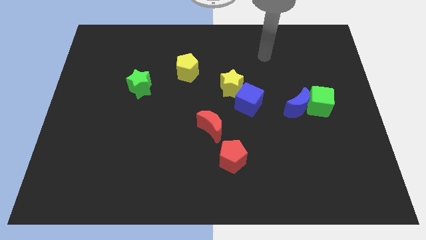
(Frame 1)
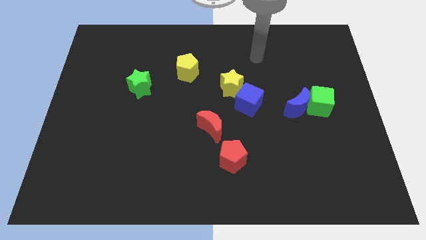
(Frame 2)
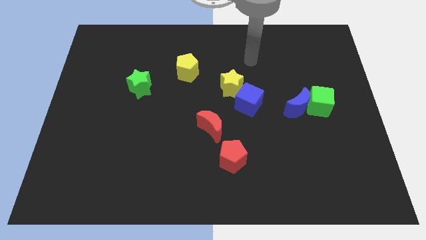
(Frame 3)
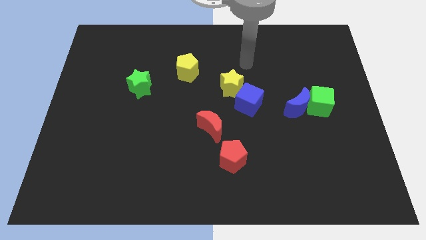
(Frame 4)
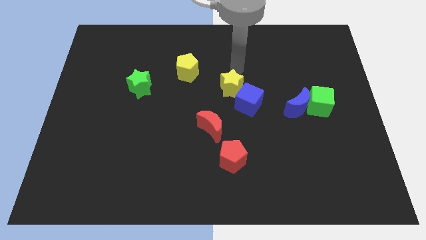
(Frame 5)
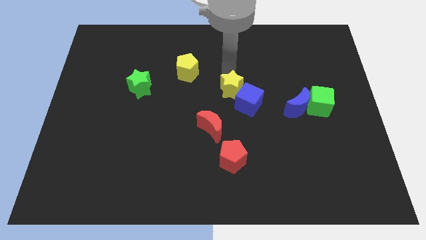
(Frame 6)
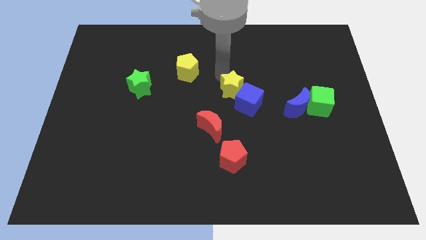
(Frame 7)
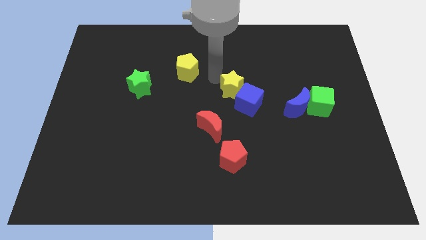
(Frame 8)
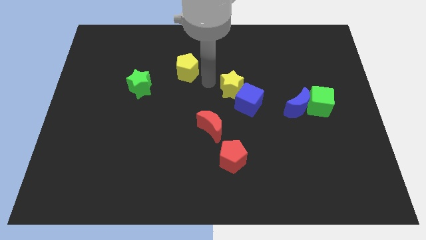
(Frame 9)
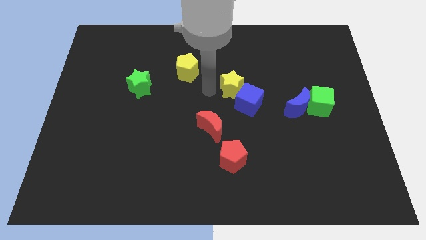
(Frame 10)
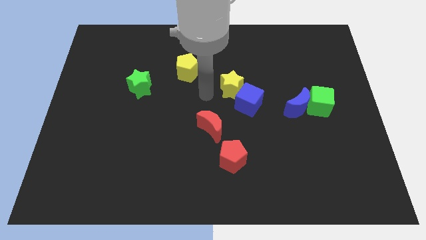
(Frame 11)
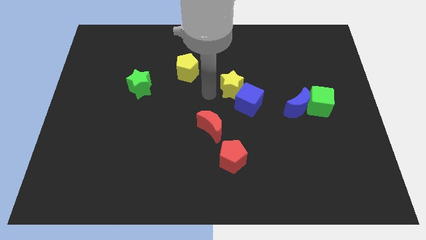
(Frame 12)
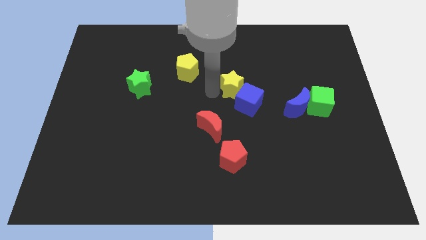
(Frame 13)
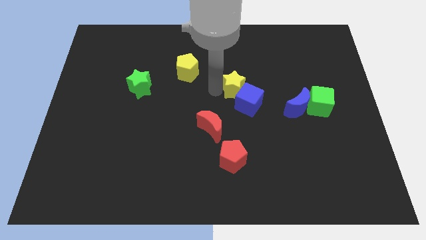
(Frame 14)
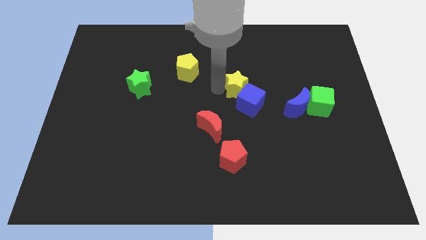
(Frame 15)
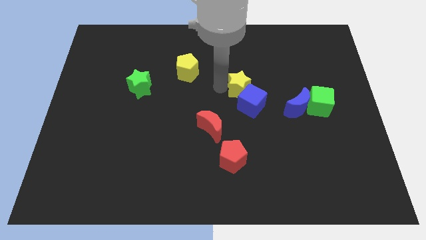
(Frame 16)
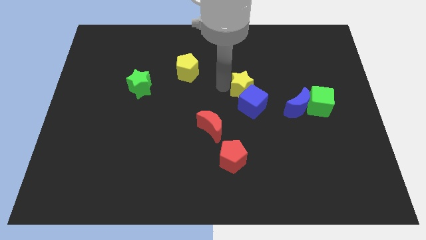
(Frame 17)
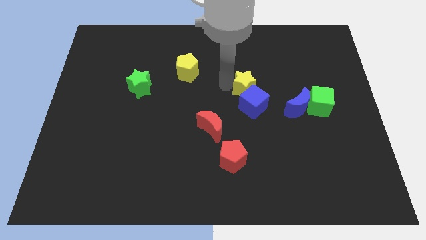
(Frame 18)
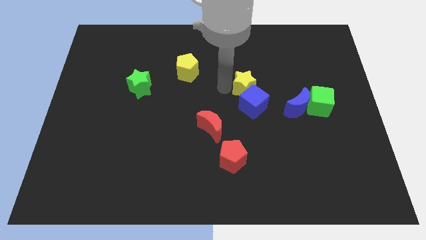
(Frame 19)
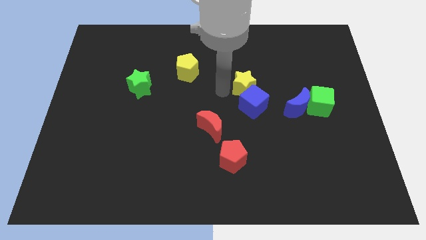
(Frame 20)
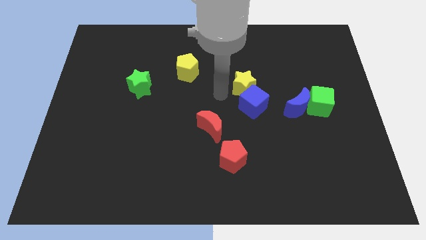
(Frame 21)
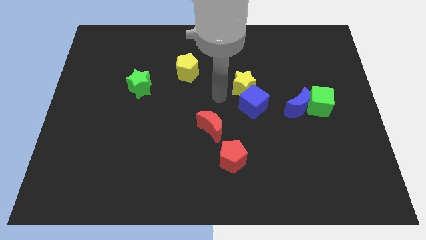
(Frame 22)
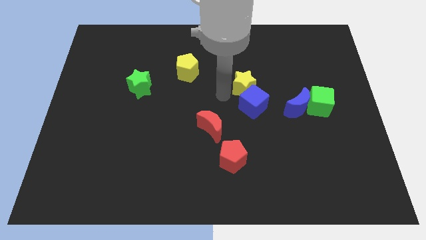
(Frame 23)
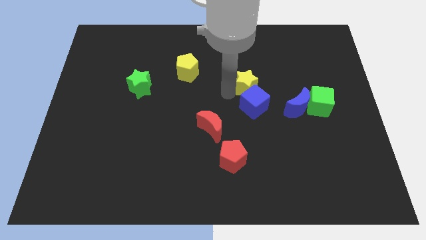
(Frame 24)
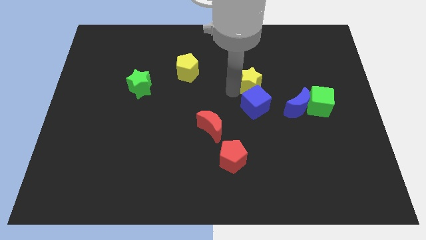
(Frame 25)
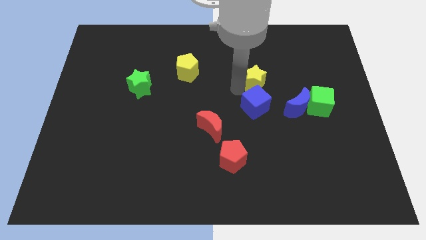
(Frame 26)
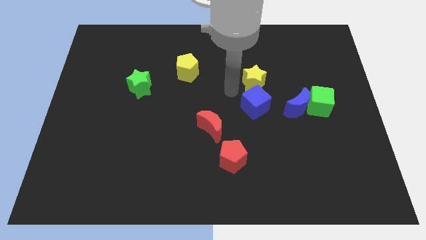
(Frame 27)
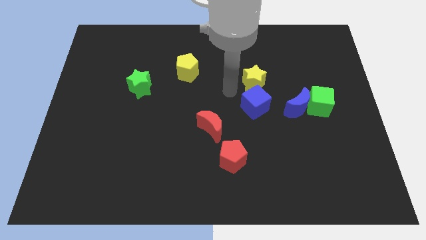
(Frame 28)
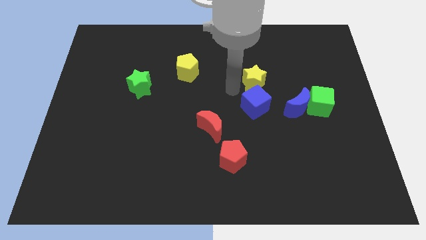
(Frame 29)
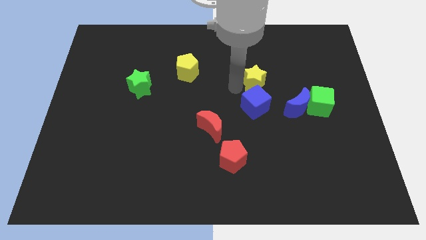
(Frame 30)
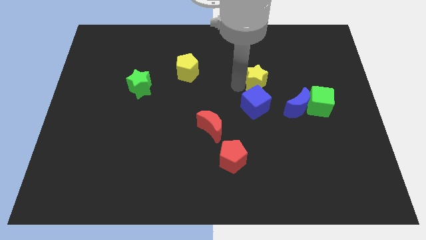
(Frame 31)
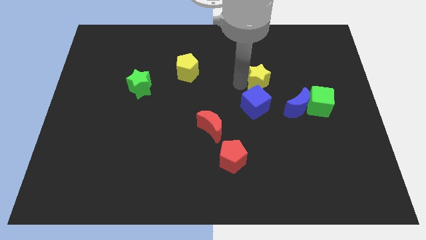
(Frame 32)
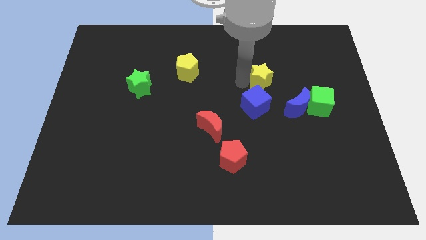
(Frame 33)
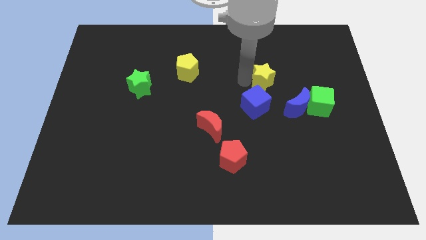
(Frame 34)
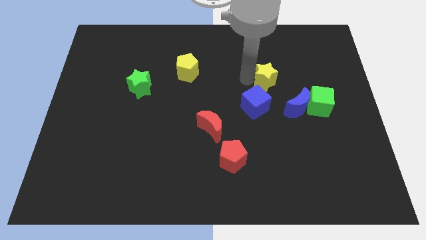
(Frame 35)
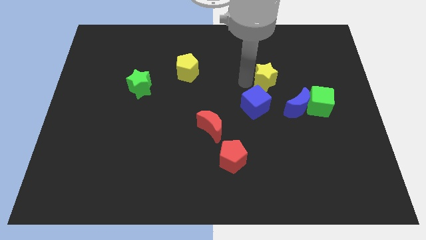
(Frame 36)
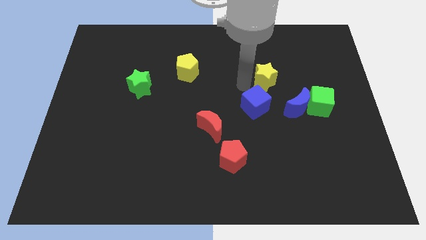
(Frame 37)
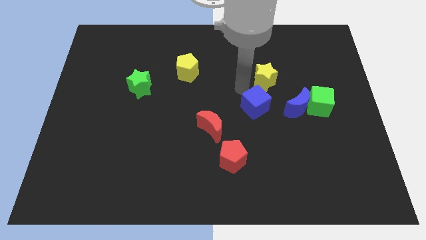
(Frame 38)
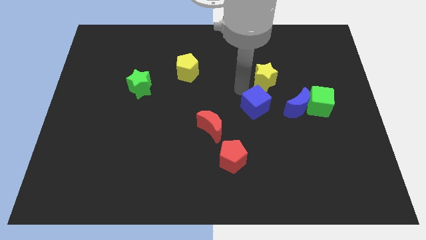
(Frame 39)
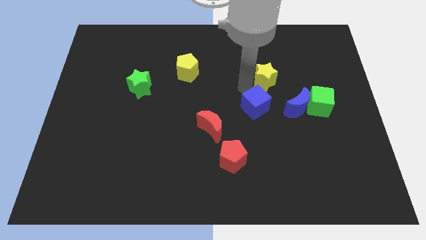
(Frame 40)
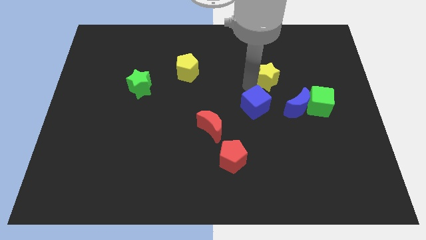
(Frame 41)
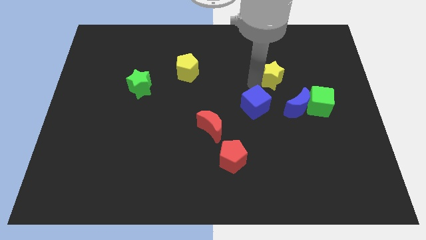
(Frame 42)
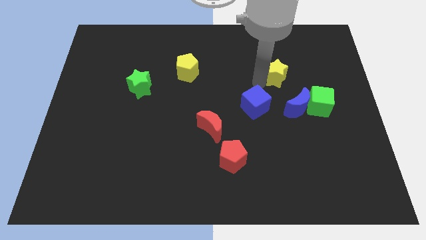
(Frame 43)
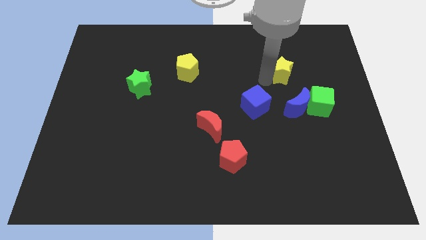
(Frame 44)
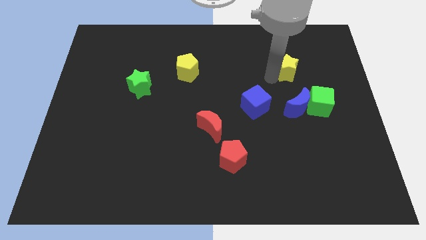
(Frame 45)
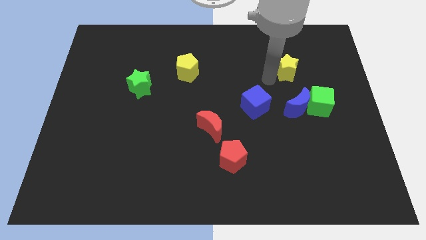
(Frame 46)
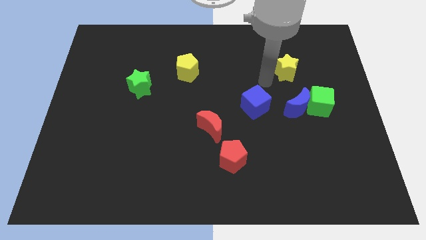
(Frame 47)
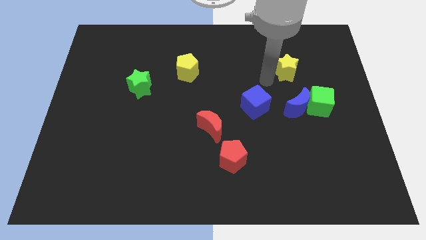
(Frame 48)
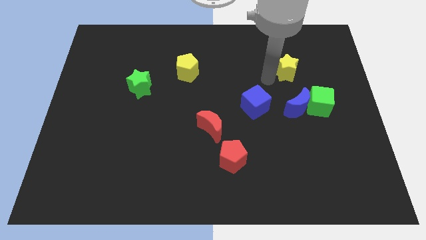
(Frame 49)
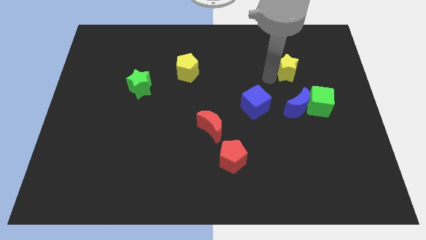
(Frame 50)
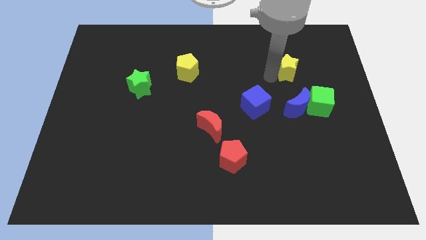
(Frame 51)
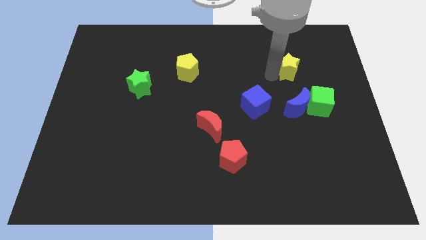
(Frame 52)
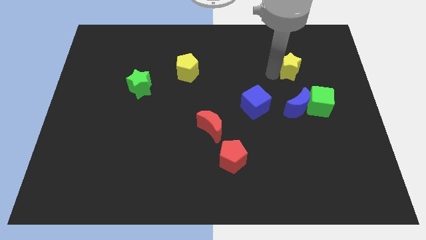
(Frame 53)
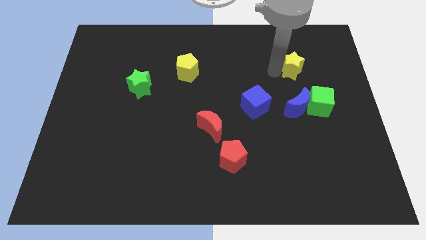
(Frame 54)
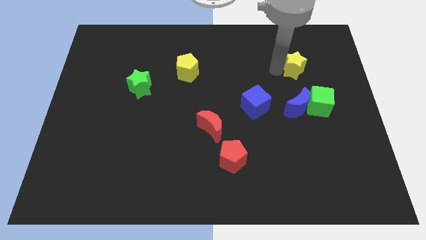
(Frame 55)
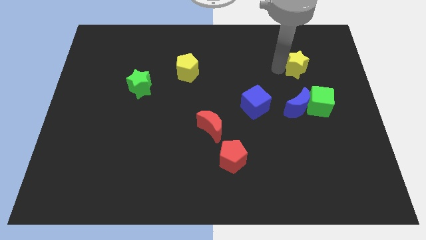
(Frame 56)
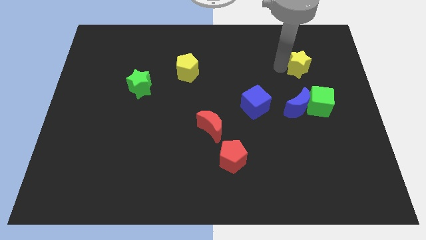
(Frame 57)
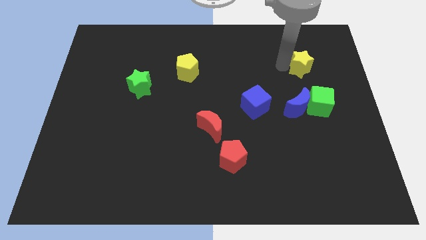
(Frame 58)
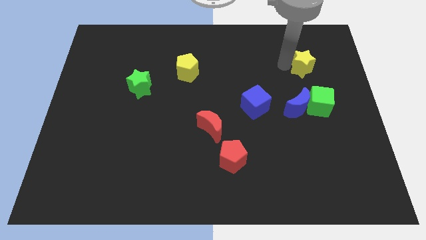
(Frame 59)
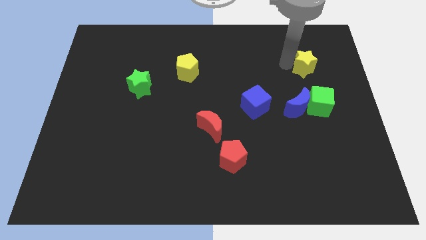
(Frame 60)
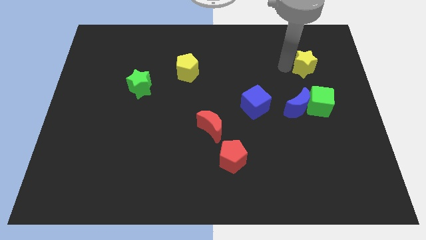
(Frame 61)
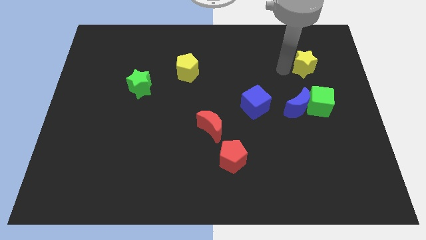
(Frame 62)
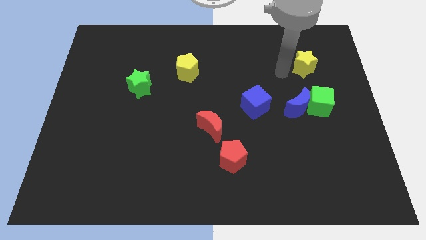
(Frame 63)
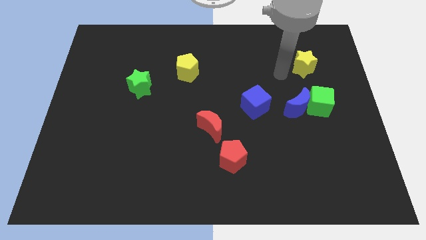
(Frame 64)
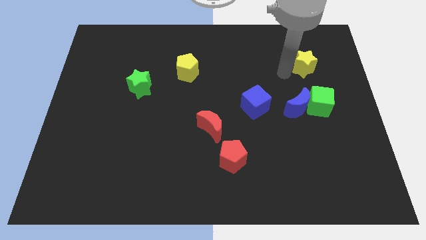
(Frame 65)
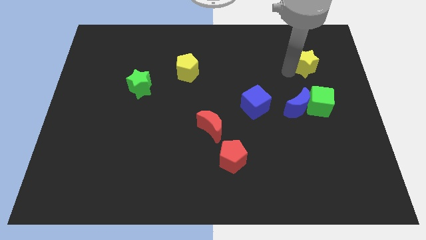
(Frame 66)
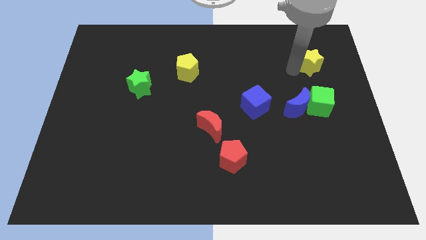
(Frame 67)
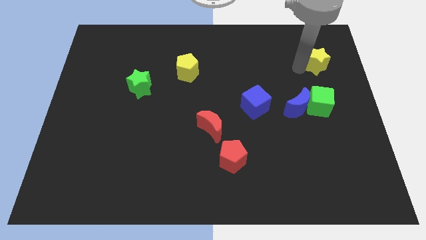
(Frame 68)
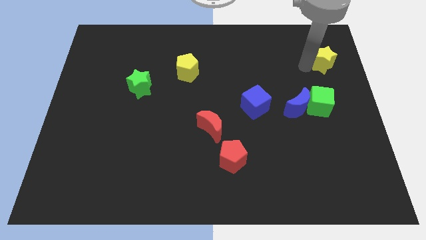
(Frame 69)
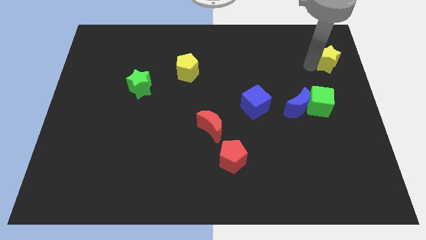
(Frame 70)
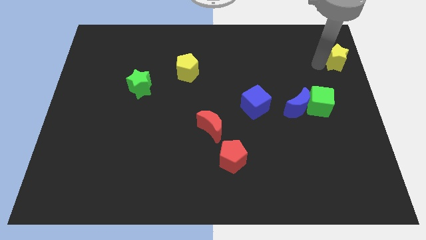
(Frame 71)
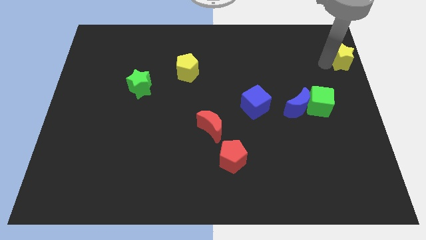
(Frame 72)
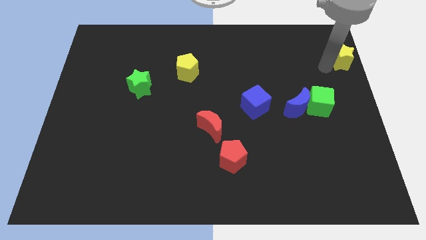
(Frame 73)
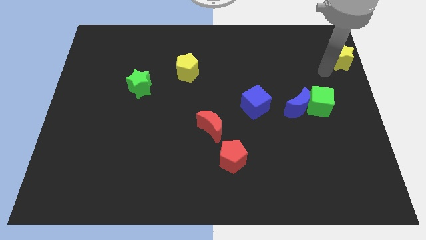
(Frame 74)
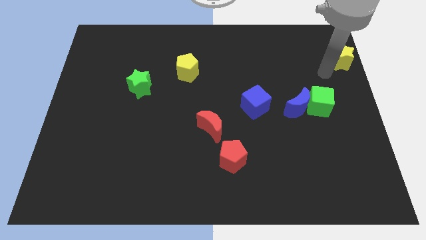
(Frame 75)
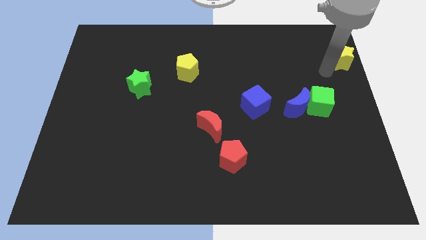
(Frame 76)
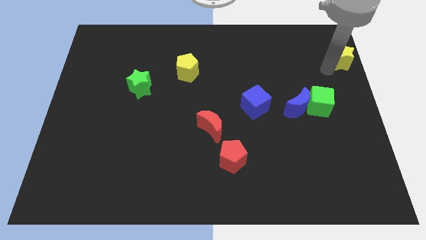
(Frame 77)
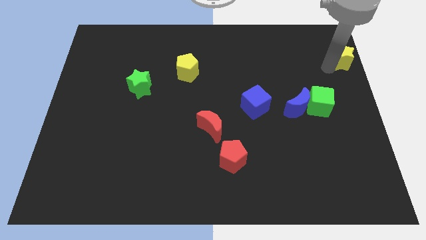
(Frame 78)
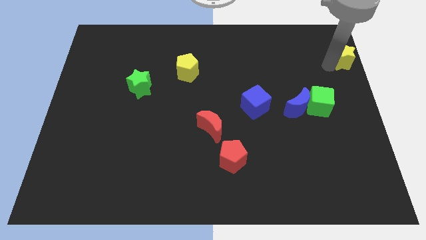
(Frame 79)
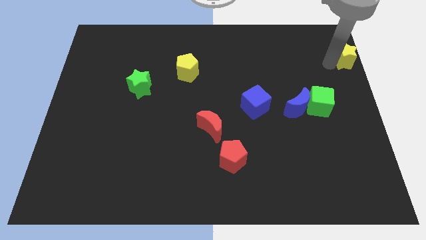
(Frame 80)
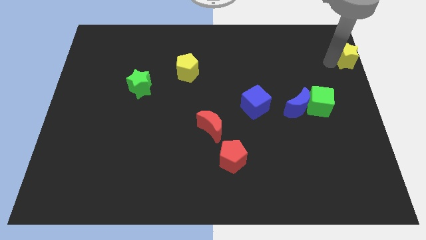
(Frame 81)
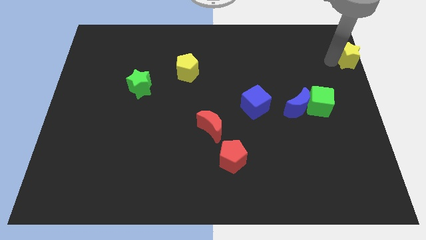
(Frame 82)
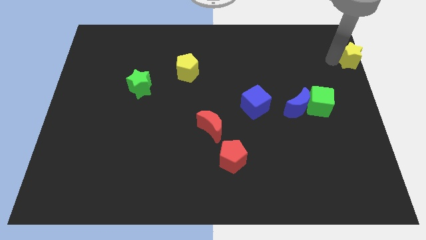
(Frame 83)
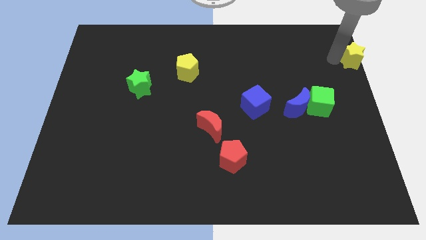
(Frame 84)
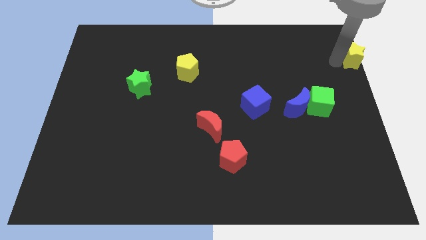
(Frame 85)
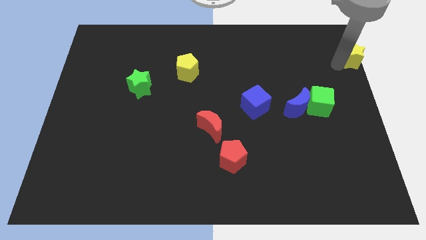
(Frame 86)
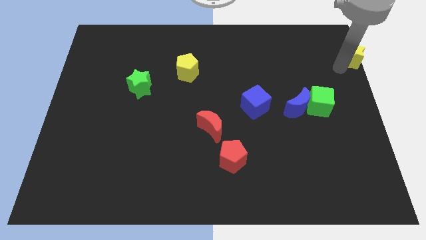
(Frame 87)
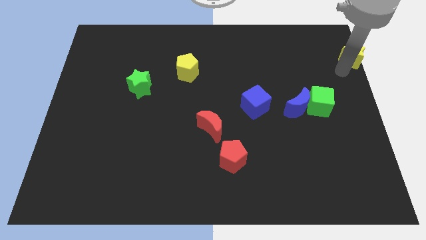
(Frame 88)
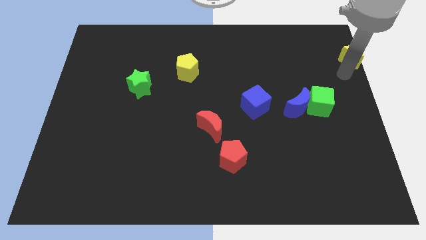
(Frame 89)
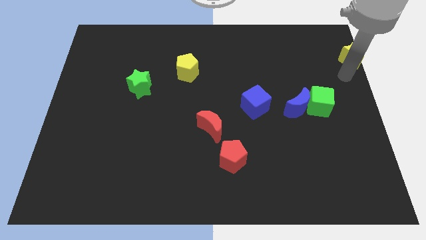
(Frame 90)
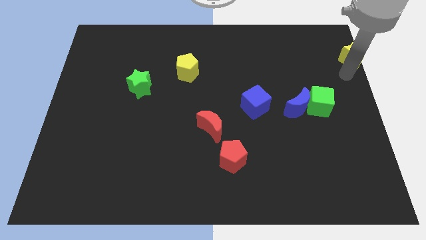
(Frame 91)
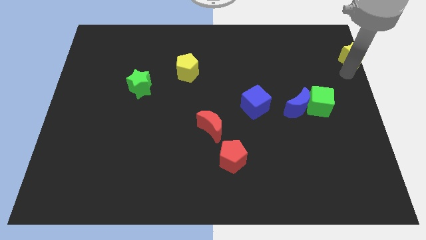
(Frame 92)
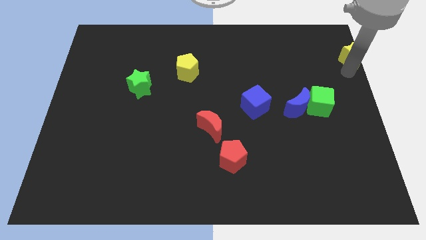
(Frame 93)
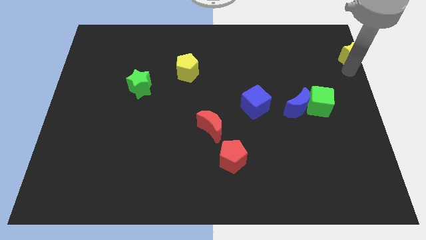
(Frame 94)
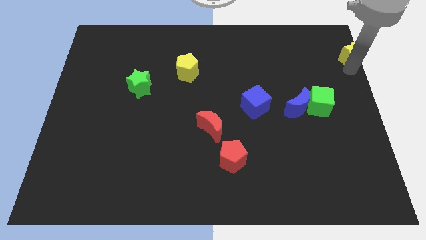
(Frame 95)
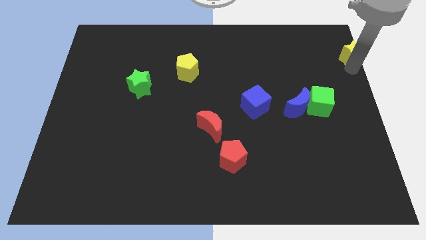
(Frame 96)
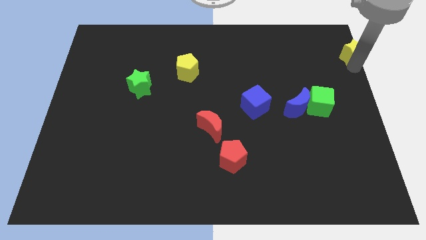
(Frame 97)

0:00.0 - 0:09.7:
slide the yellow star to the top right corner
